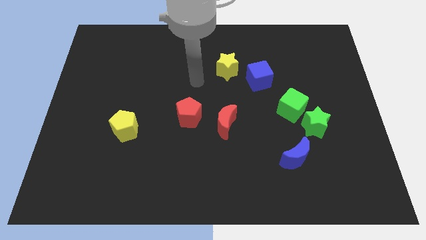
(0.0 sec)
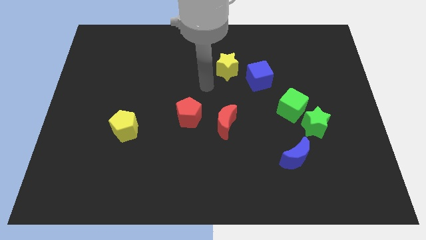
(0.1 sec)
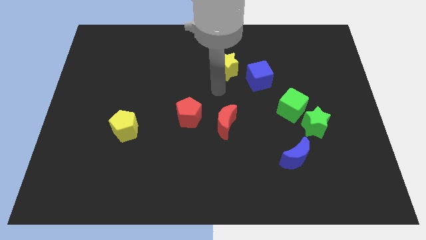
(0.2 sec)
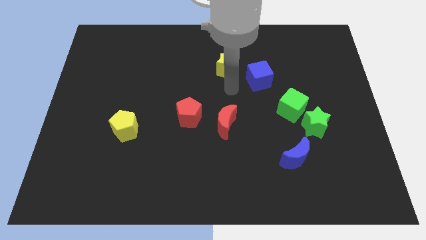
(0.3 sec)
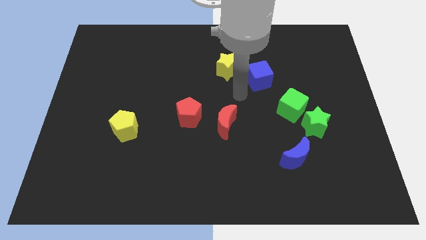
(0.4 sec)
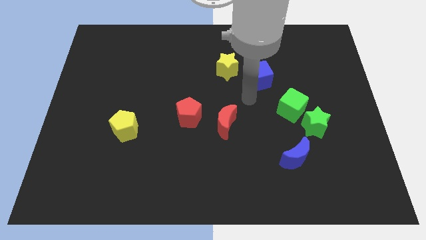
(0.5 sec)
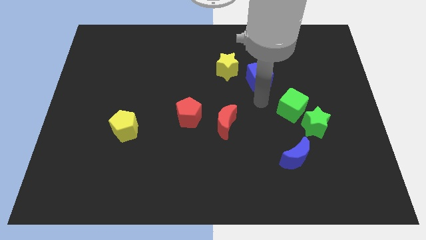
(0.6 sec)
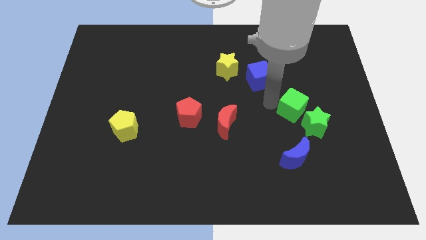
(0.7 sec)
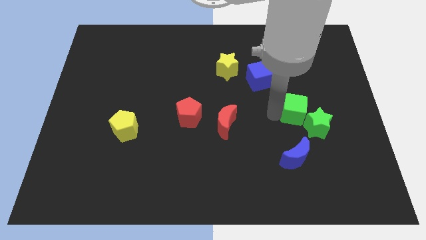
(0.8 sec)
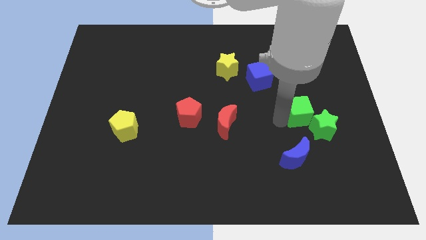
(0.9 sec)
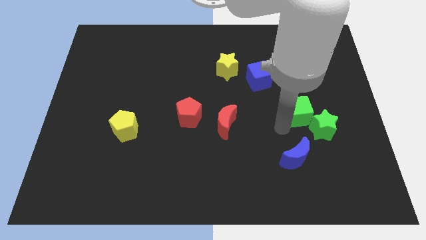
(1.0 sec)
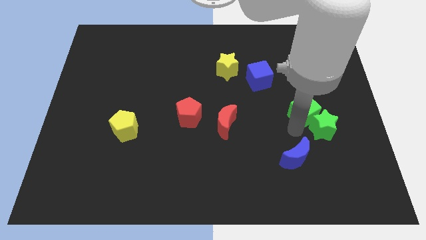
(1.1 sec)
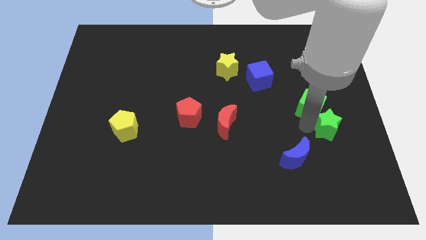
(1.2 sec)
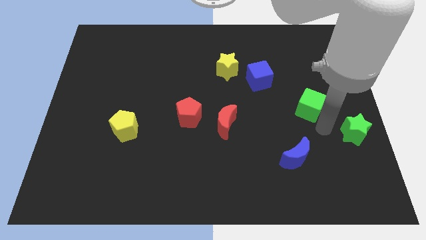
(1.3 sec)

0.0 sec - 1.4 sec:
pull the green cube apart from the green star

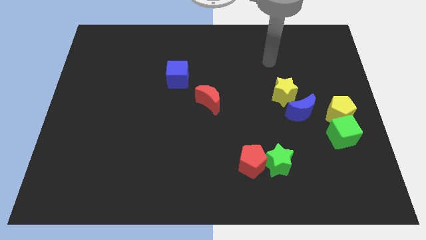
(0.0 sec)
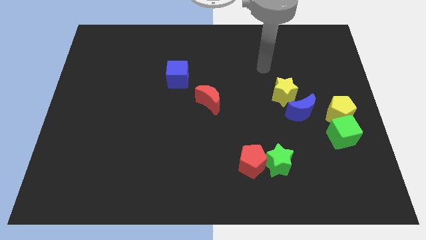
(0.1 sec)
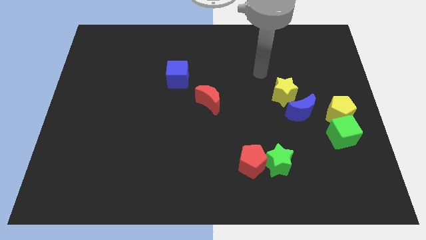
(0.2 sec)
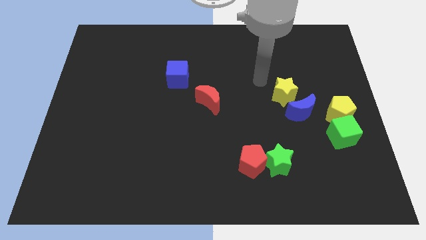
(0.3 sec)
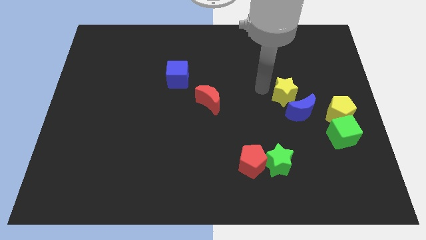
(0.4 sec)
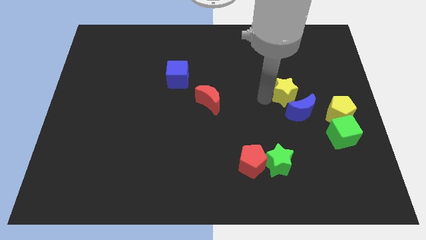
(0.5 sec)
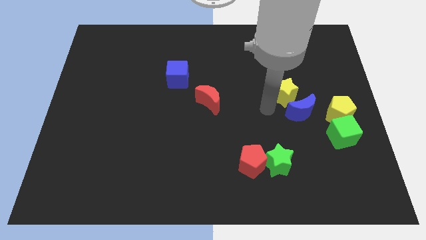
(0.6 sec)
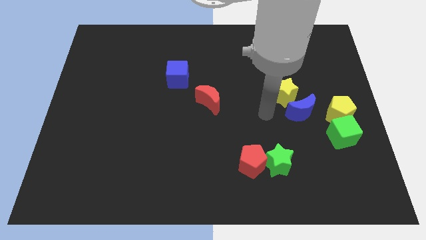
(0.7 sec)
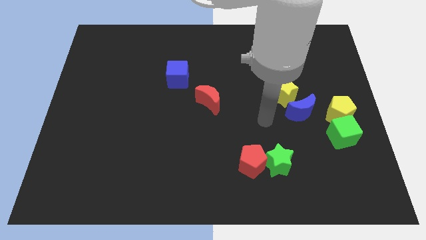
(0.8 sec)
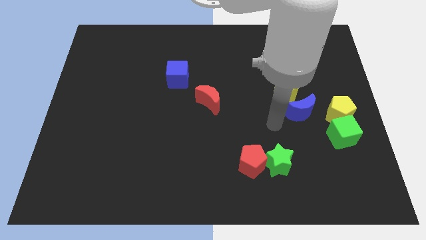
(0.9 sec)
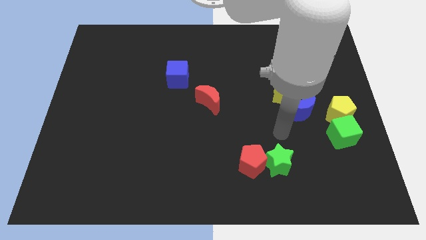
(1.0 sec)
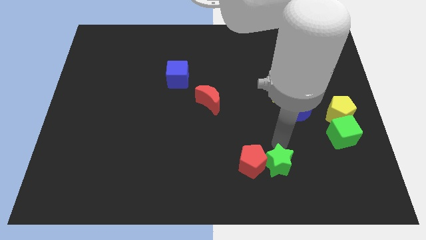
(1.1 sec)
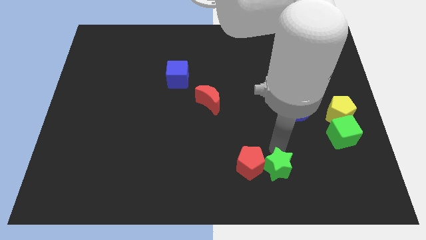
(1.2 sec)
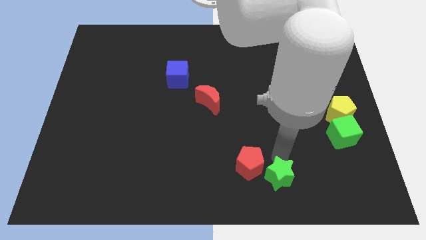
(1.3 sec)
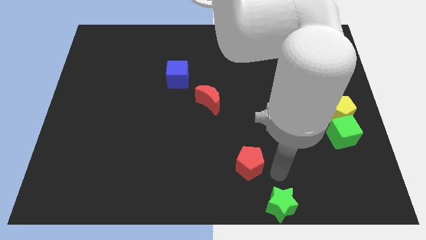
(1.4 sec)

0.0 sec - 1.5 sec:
separate the red pentagon from the green star

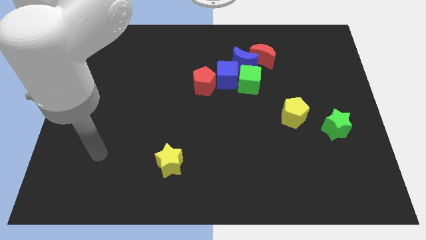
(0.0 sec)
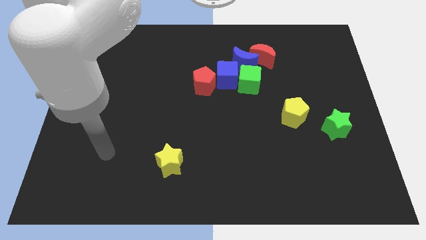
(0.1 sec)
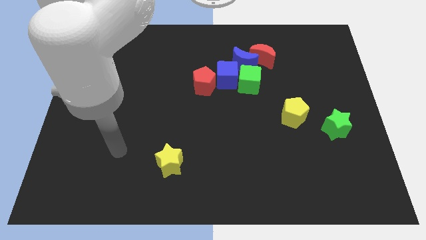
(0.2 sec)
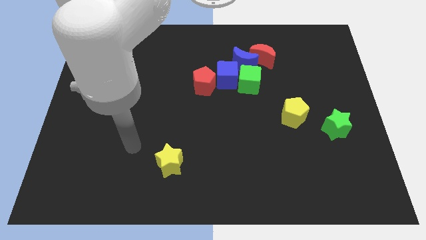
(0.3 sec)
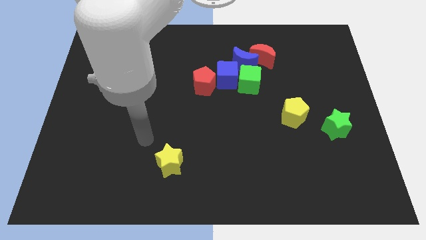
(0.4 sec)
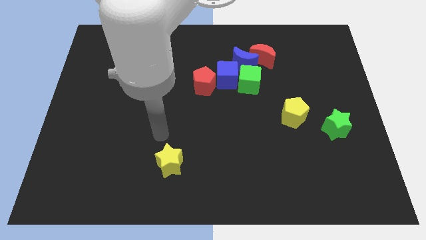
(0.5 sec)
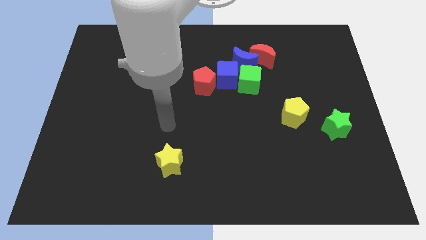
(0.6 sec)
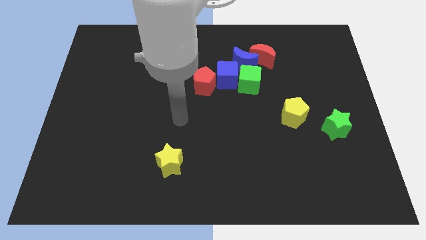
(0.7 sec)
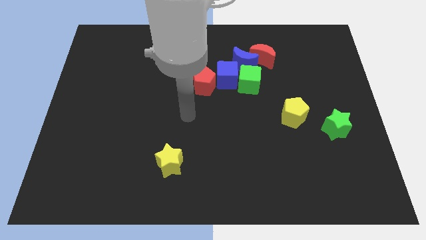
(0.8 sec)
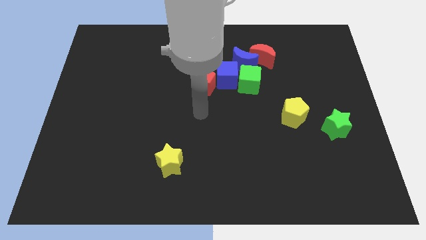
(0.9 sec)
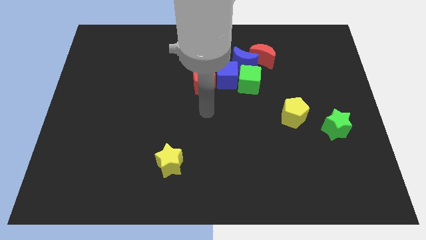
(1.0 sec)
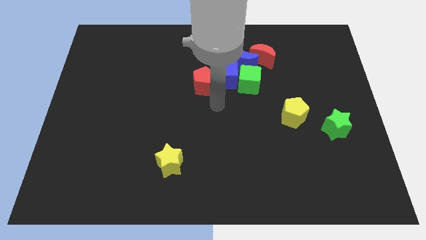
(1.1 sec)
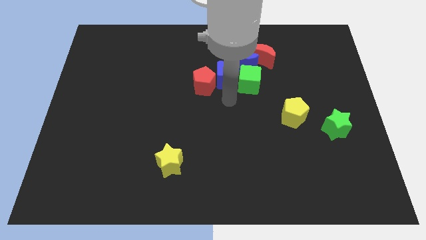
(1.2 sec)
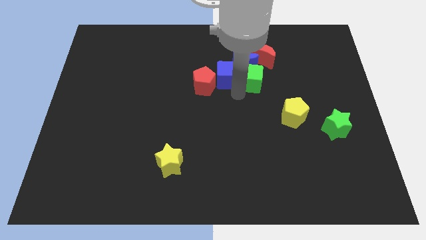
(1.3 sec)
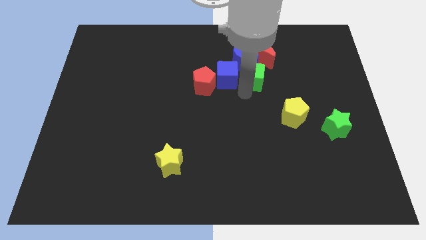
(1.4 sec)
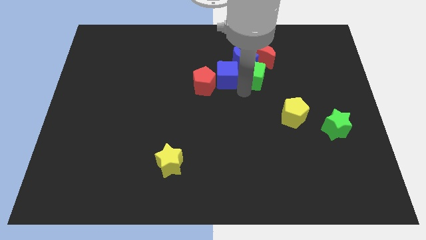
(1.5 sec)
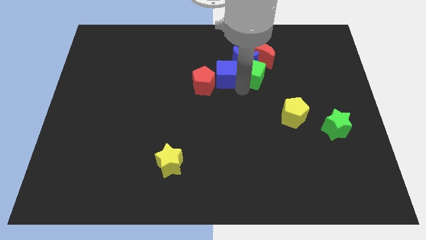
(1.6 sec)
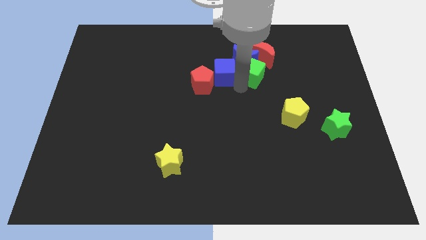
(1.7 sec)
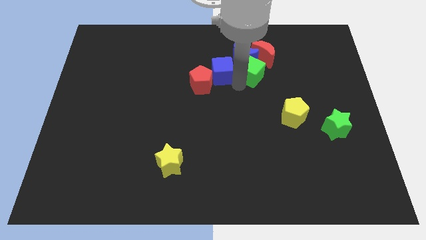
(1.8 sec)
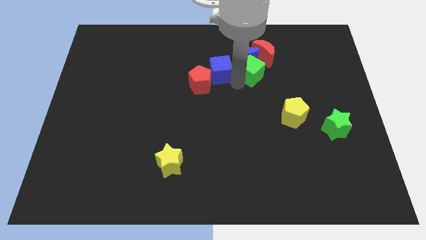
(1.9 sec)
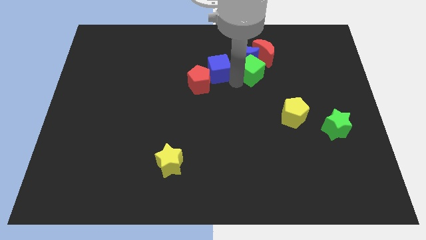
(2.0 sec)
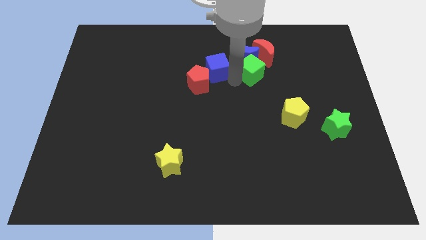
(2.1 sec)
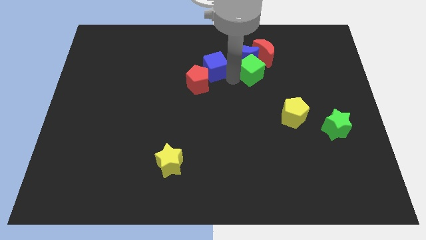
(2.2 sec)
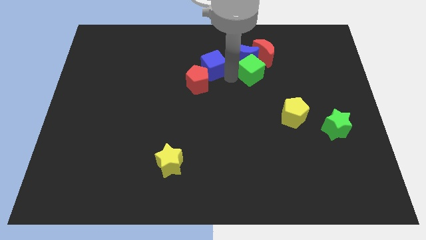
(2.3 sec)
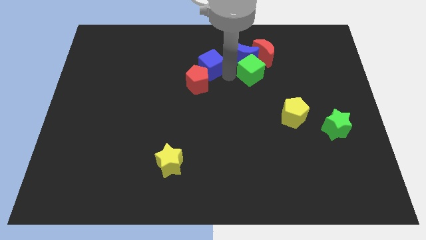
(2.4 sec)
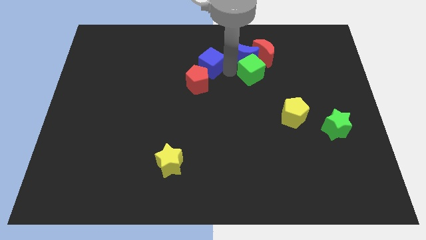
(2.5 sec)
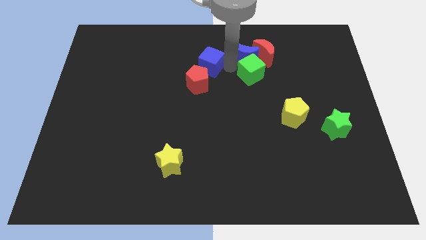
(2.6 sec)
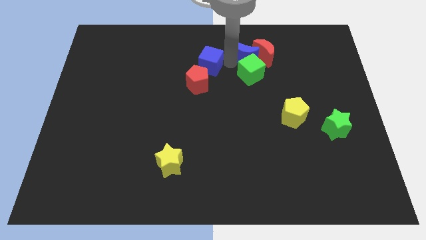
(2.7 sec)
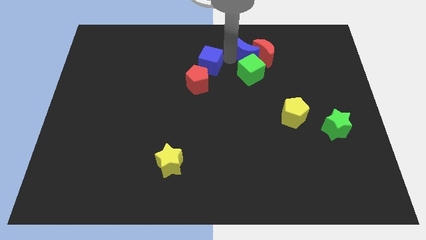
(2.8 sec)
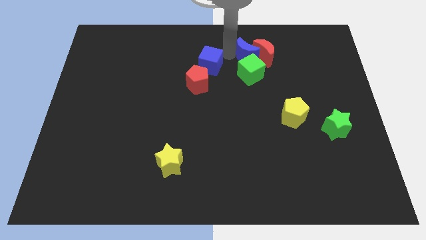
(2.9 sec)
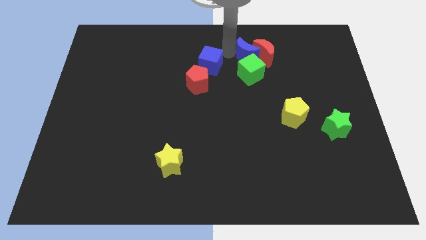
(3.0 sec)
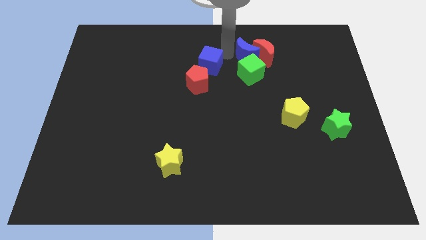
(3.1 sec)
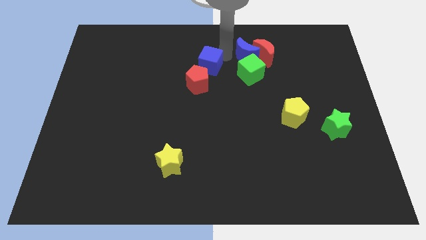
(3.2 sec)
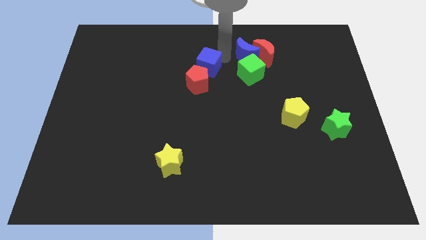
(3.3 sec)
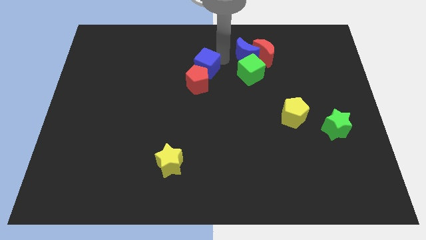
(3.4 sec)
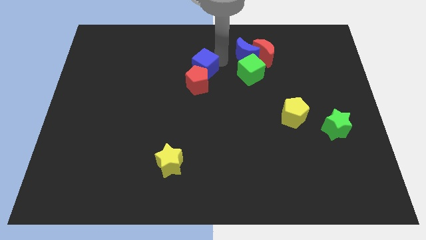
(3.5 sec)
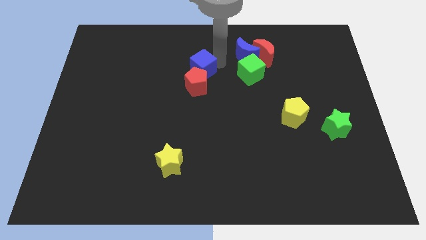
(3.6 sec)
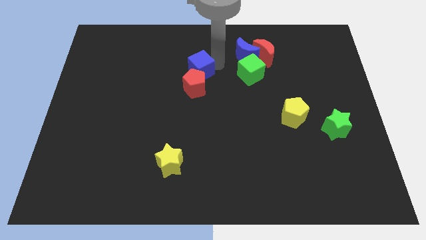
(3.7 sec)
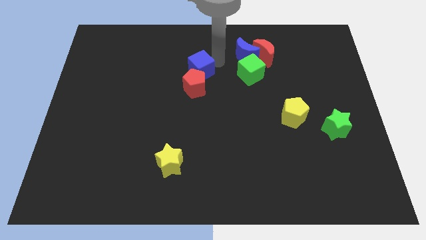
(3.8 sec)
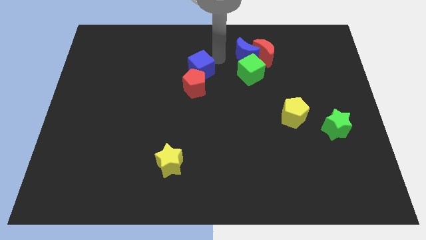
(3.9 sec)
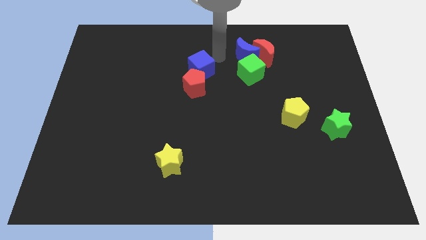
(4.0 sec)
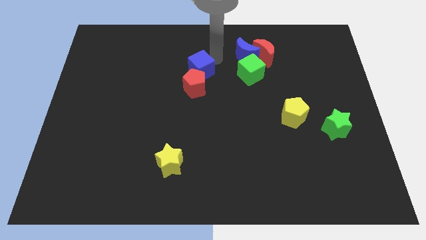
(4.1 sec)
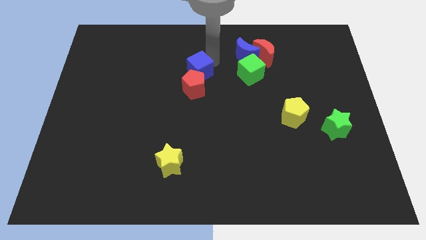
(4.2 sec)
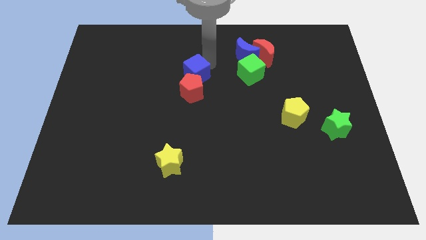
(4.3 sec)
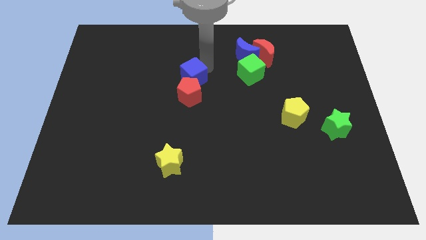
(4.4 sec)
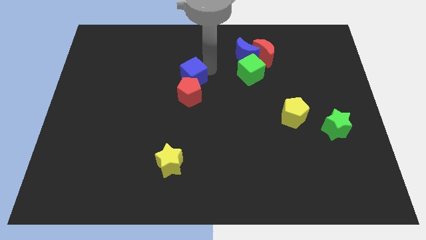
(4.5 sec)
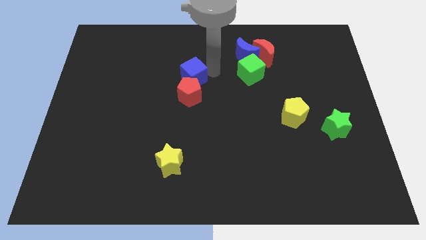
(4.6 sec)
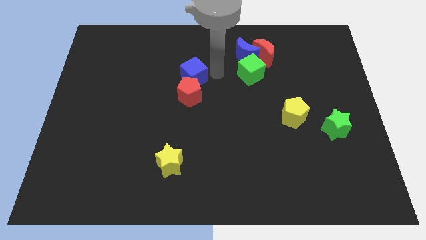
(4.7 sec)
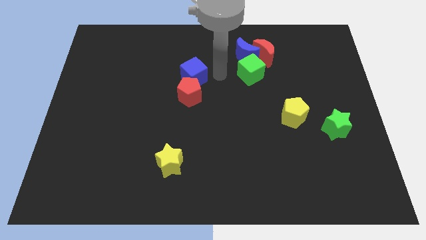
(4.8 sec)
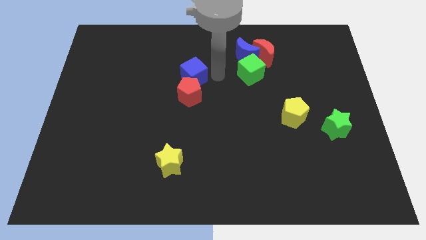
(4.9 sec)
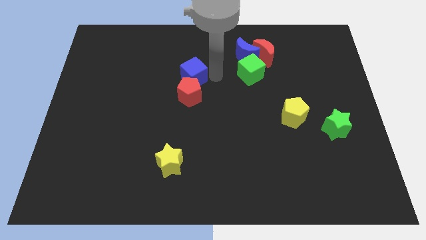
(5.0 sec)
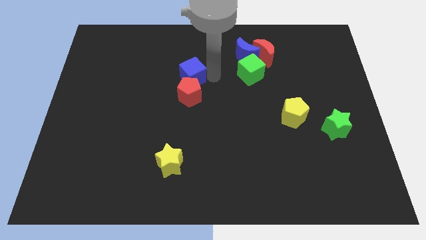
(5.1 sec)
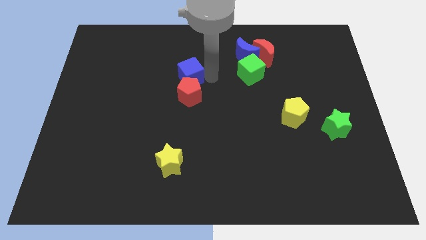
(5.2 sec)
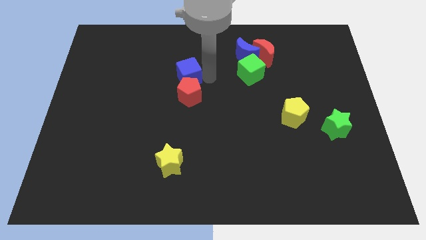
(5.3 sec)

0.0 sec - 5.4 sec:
pull the blue cube apart from the group of blocks

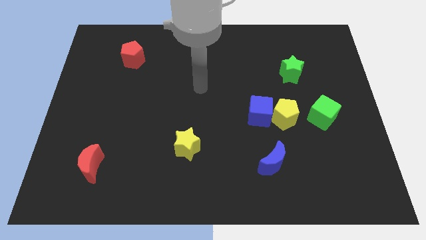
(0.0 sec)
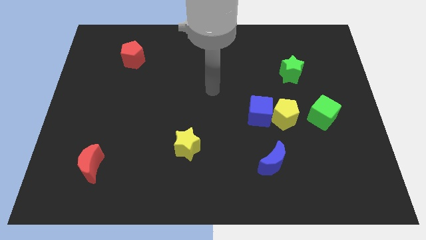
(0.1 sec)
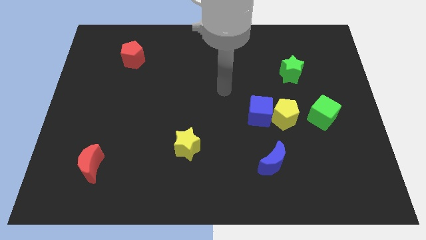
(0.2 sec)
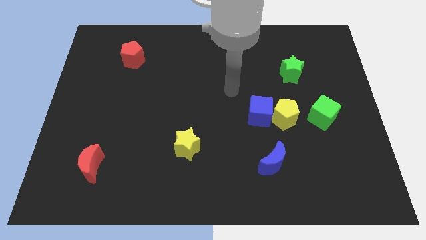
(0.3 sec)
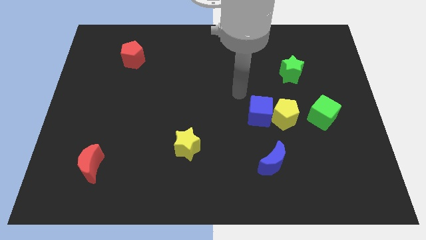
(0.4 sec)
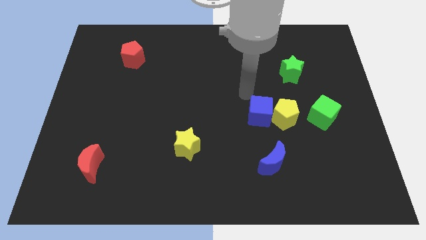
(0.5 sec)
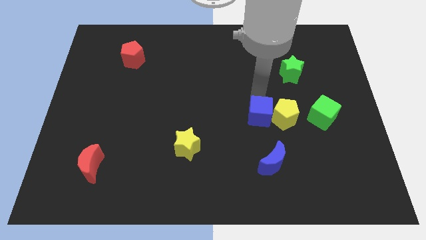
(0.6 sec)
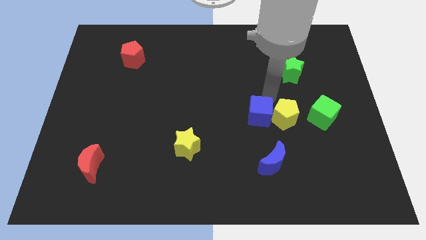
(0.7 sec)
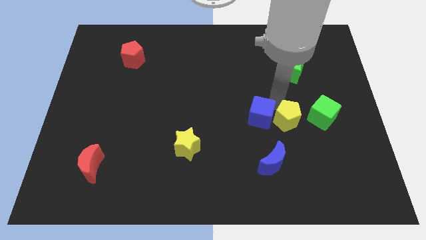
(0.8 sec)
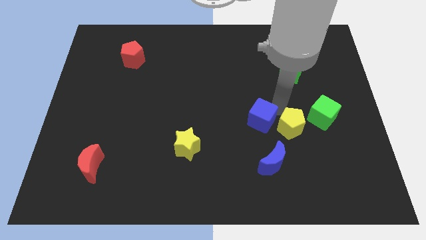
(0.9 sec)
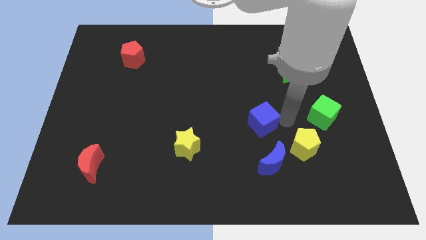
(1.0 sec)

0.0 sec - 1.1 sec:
separate the blue cube from the yellow pentagon
